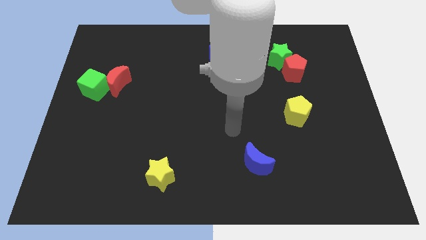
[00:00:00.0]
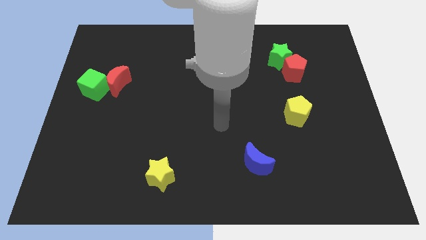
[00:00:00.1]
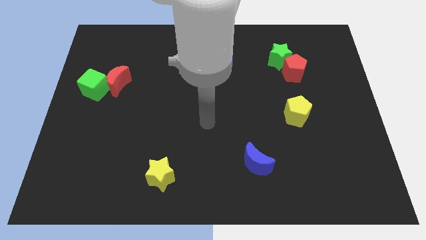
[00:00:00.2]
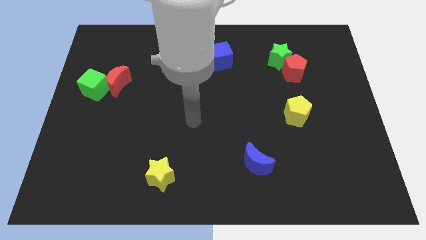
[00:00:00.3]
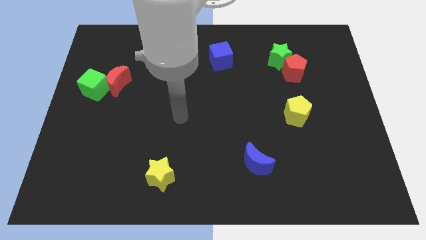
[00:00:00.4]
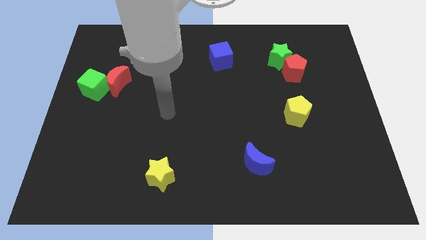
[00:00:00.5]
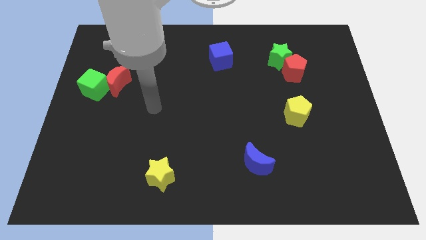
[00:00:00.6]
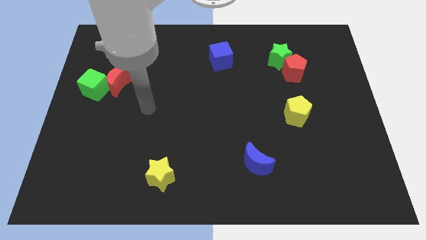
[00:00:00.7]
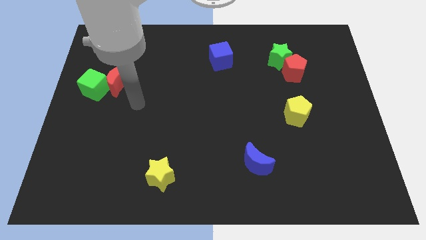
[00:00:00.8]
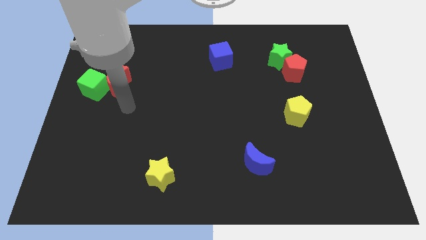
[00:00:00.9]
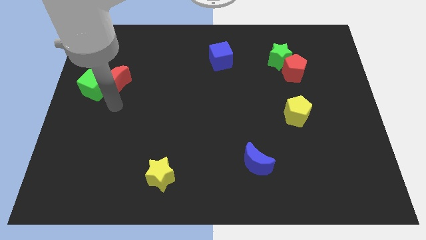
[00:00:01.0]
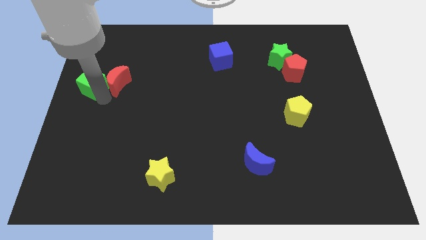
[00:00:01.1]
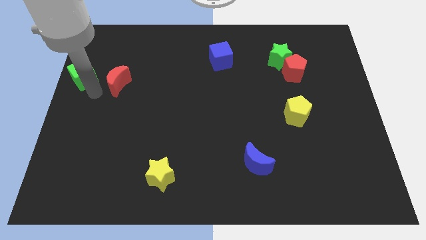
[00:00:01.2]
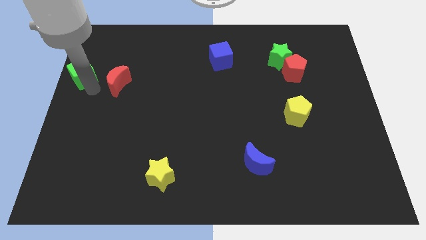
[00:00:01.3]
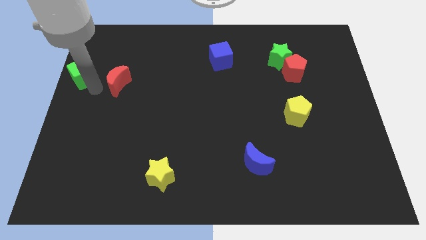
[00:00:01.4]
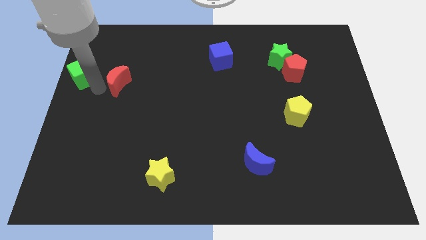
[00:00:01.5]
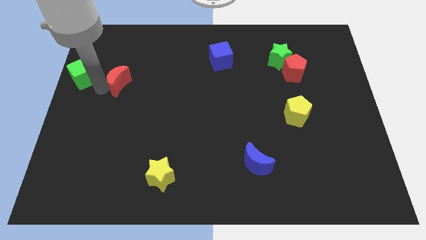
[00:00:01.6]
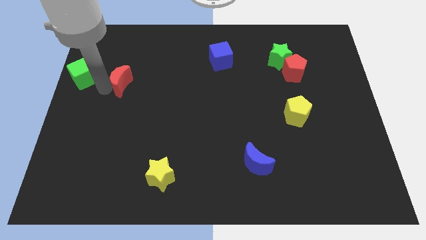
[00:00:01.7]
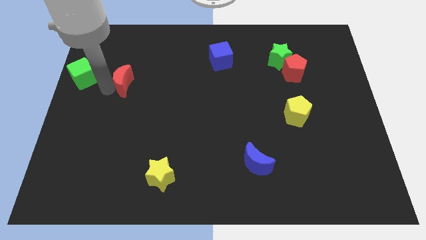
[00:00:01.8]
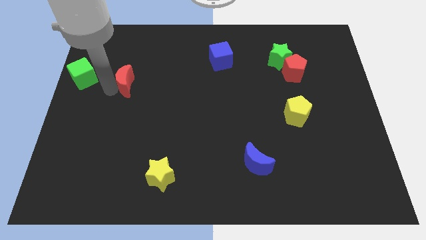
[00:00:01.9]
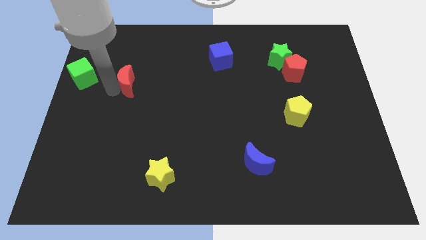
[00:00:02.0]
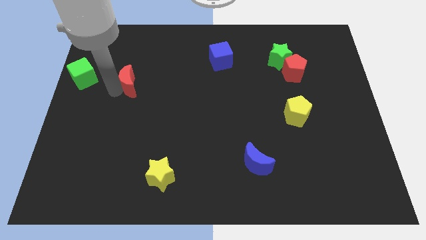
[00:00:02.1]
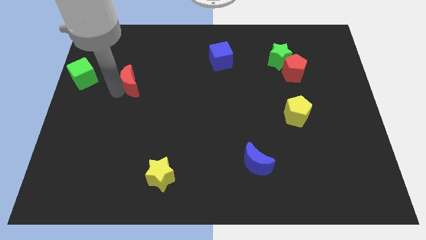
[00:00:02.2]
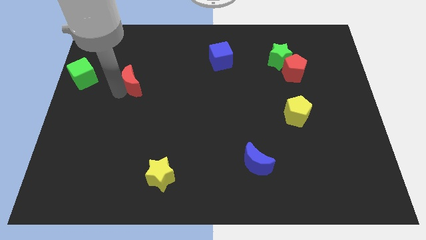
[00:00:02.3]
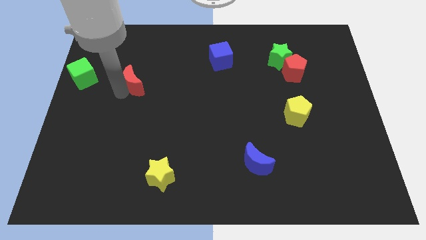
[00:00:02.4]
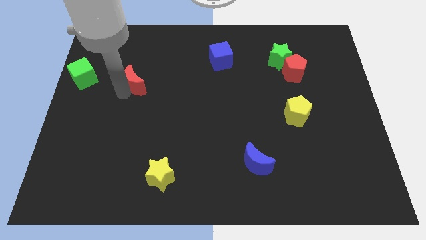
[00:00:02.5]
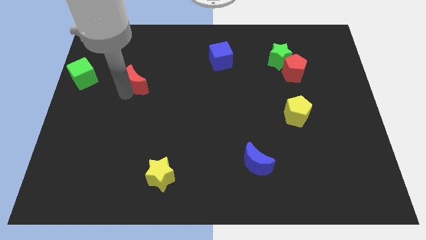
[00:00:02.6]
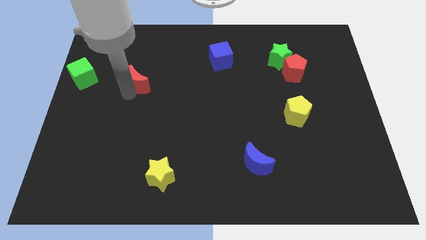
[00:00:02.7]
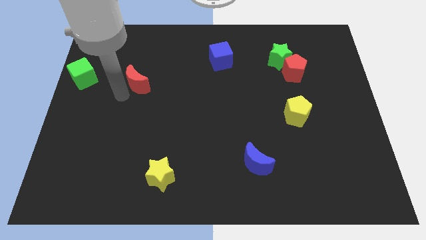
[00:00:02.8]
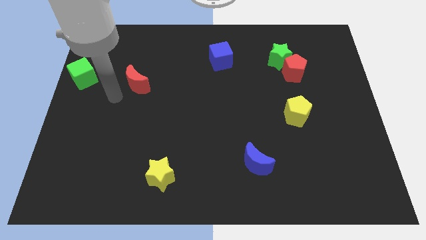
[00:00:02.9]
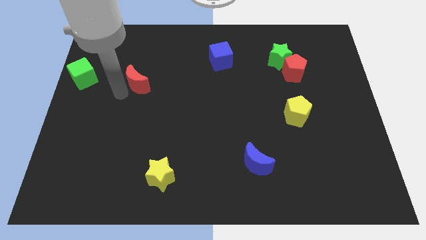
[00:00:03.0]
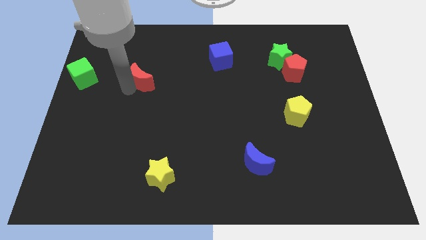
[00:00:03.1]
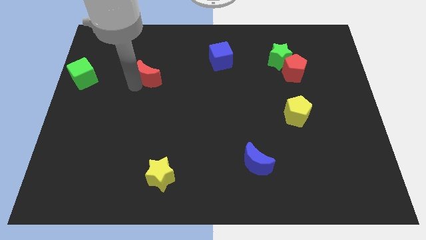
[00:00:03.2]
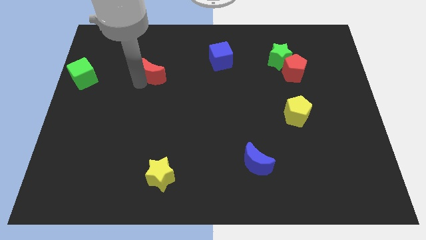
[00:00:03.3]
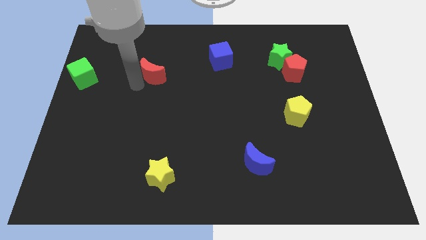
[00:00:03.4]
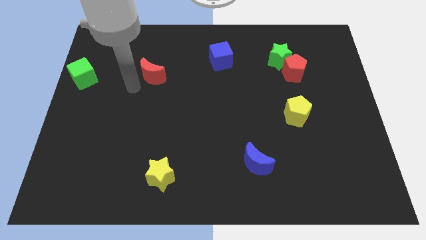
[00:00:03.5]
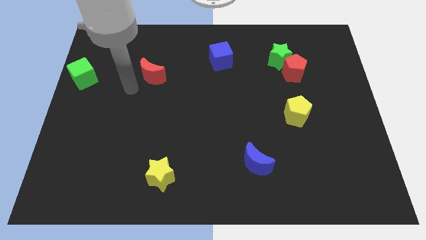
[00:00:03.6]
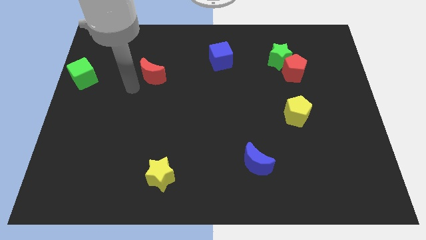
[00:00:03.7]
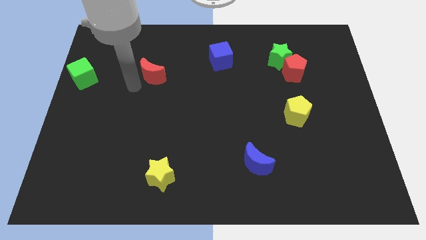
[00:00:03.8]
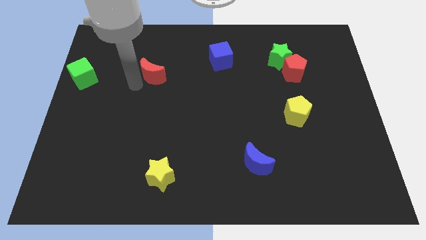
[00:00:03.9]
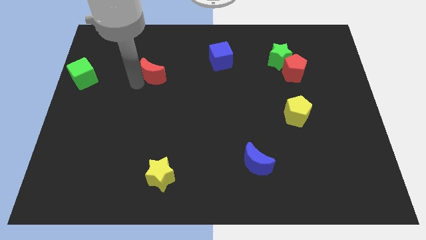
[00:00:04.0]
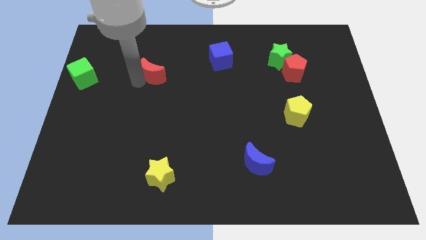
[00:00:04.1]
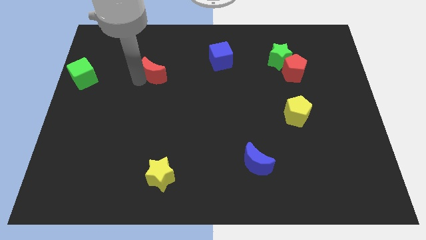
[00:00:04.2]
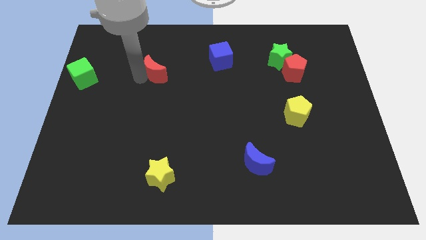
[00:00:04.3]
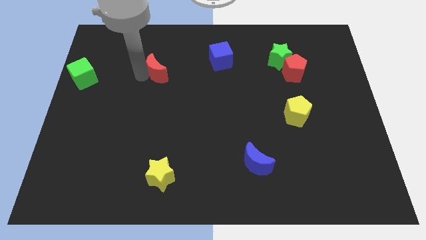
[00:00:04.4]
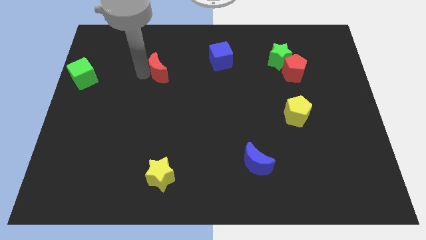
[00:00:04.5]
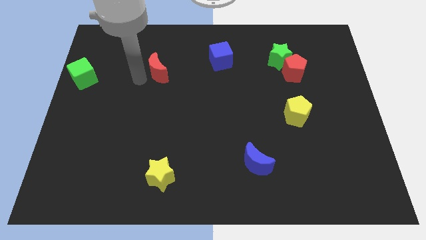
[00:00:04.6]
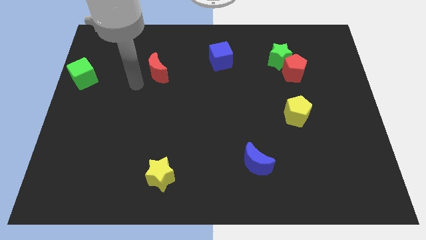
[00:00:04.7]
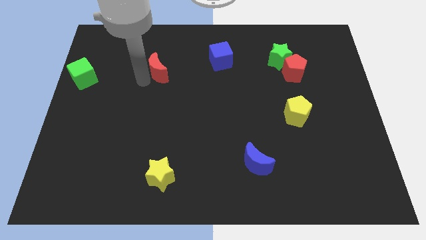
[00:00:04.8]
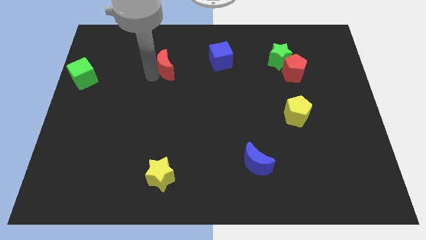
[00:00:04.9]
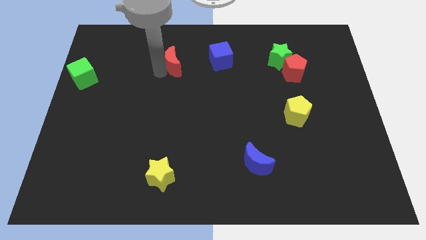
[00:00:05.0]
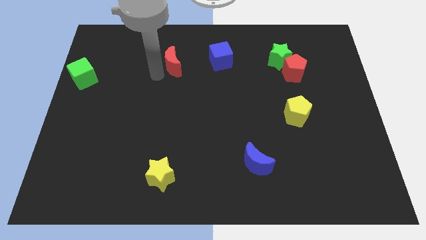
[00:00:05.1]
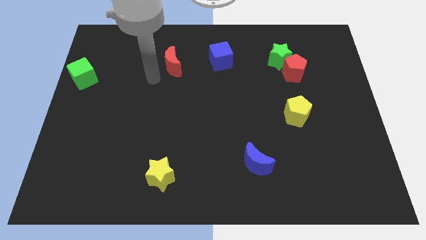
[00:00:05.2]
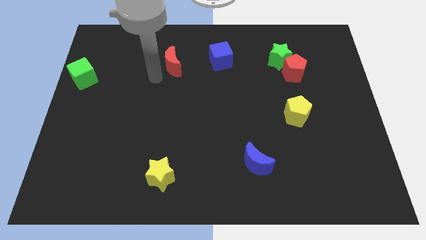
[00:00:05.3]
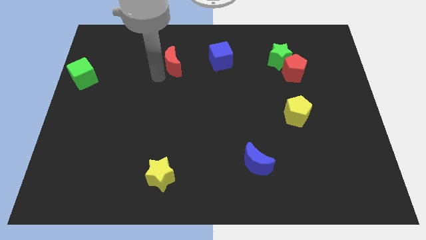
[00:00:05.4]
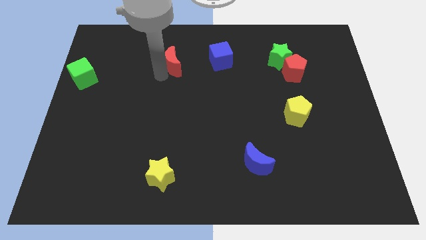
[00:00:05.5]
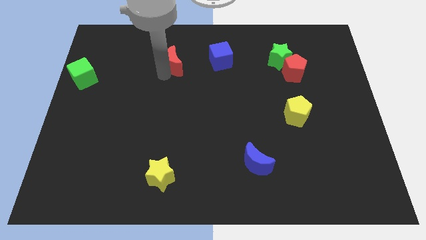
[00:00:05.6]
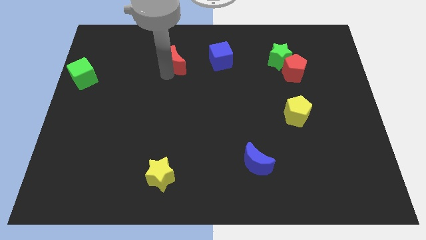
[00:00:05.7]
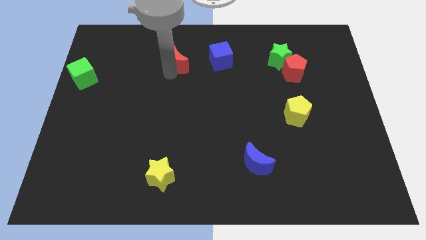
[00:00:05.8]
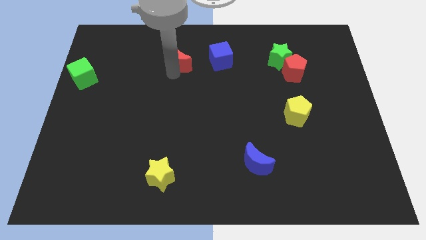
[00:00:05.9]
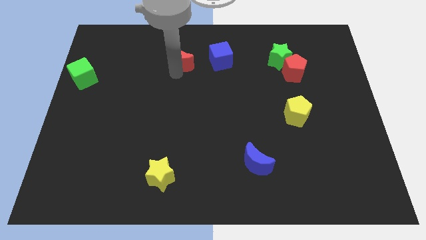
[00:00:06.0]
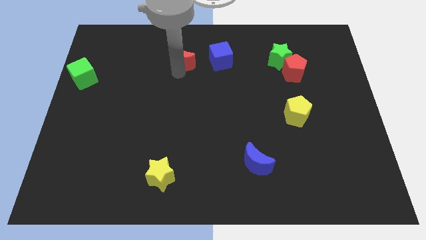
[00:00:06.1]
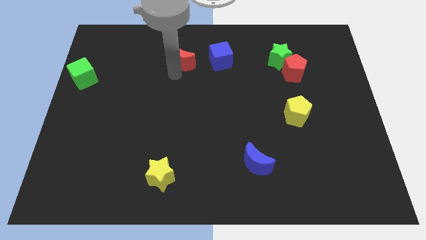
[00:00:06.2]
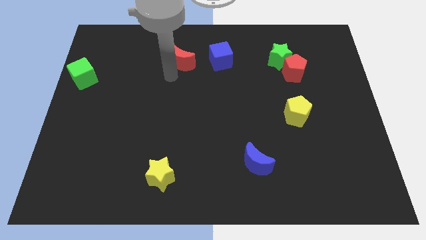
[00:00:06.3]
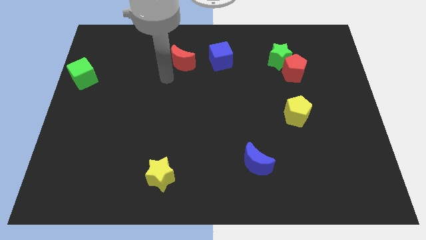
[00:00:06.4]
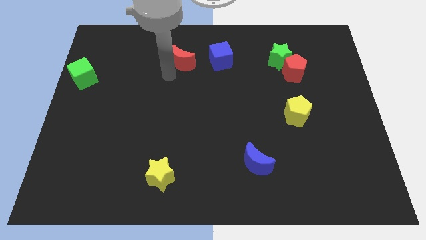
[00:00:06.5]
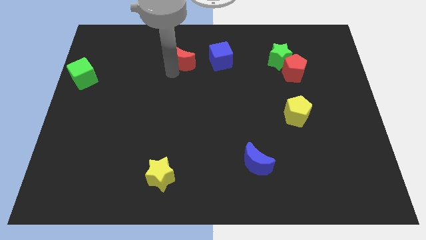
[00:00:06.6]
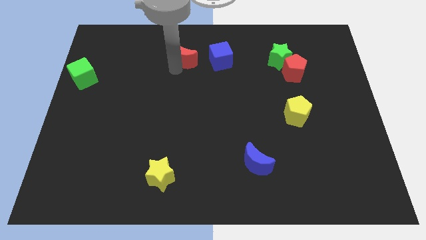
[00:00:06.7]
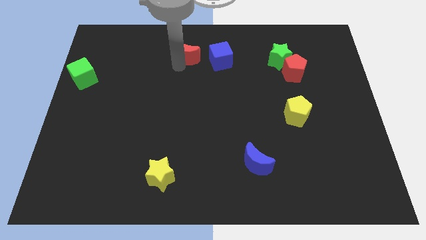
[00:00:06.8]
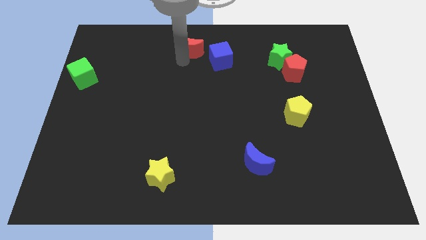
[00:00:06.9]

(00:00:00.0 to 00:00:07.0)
move the red moon to the top
